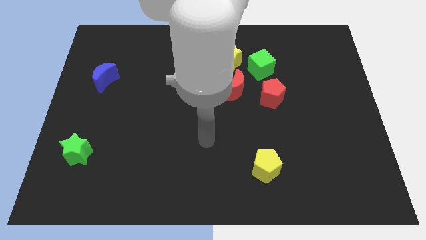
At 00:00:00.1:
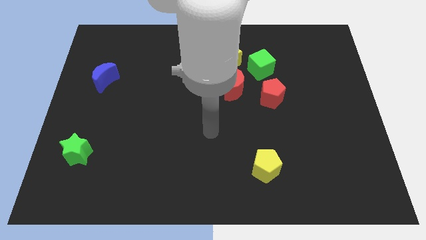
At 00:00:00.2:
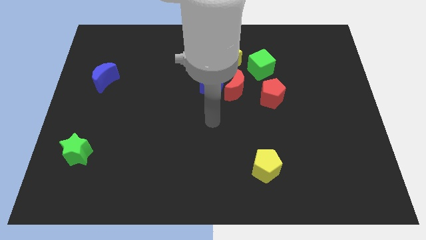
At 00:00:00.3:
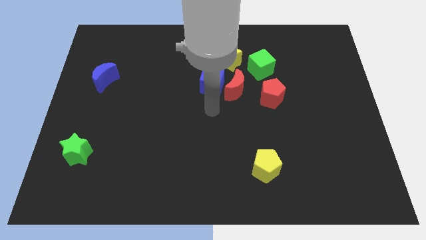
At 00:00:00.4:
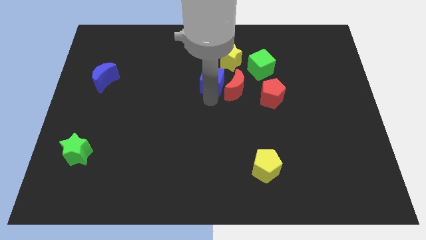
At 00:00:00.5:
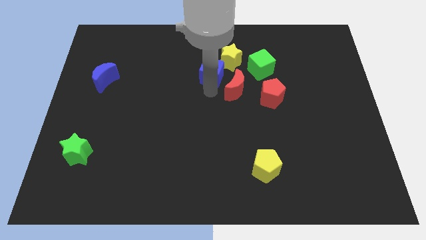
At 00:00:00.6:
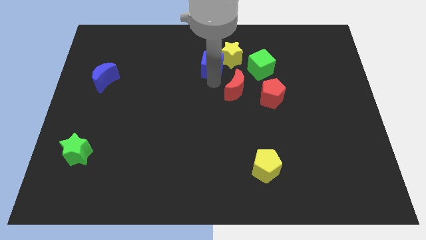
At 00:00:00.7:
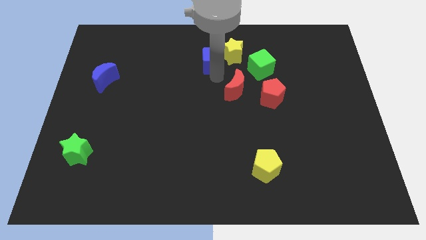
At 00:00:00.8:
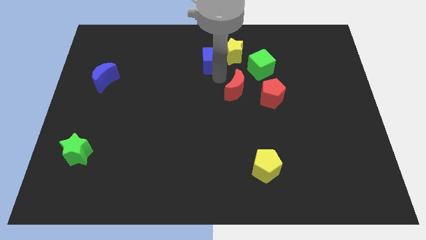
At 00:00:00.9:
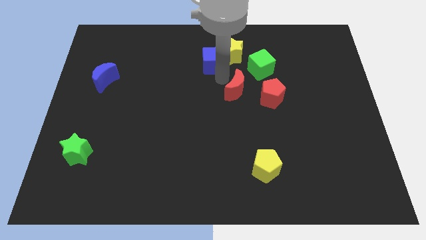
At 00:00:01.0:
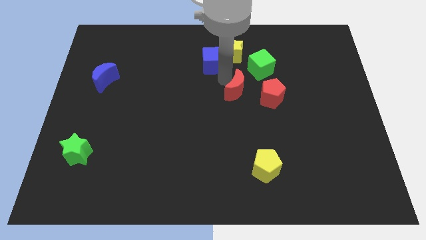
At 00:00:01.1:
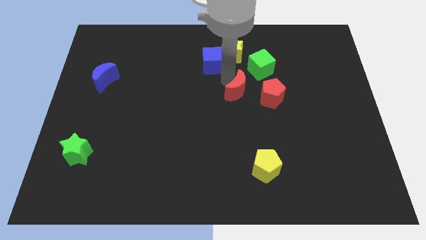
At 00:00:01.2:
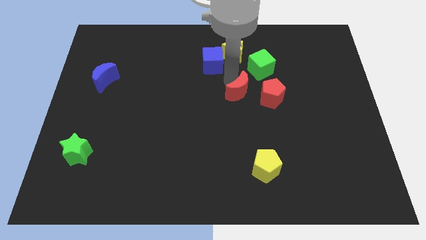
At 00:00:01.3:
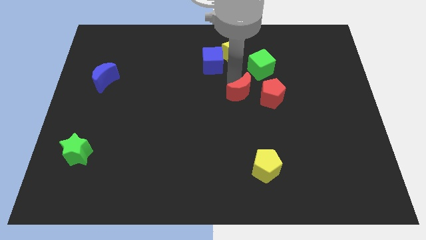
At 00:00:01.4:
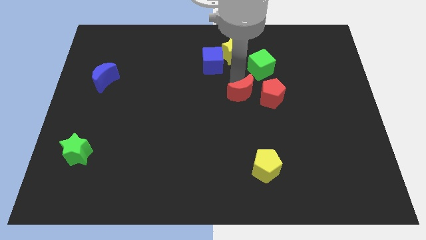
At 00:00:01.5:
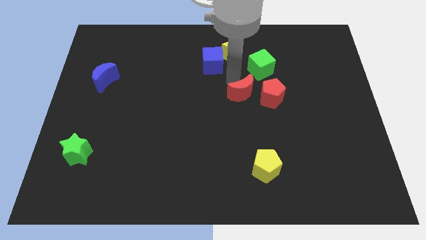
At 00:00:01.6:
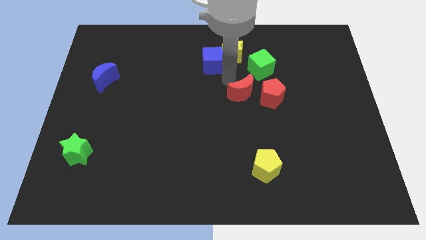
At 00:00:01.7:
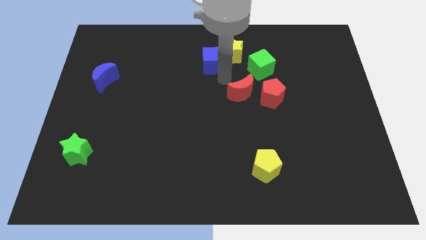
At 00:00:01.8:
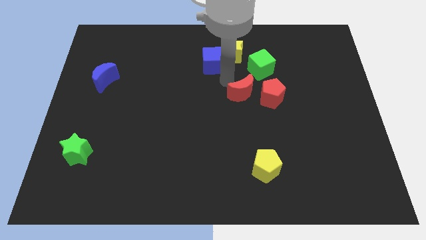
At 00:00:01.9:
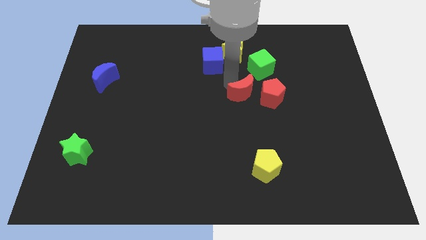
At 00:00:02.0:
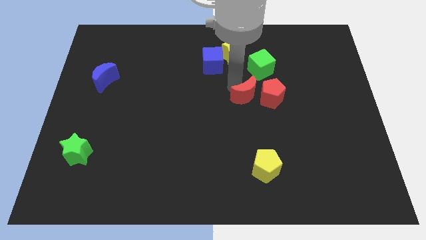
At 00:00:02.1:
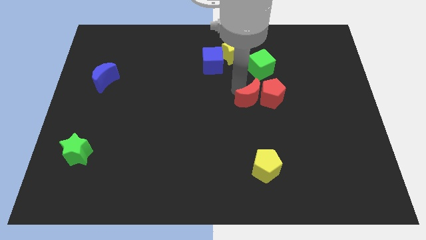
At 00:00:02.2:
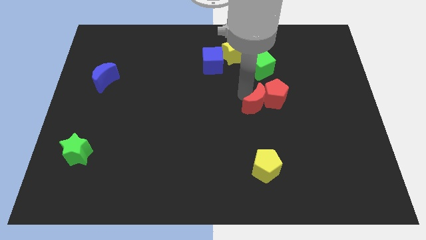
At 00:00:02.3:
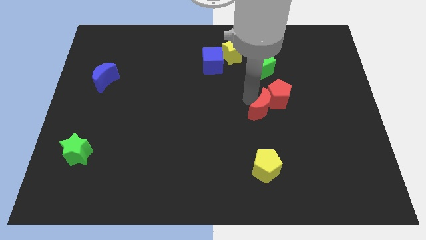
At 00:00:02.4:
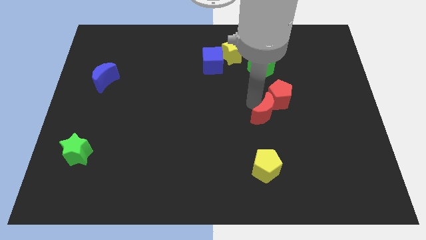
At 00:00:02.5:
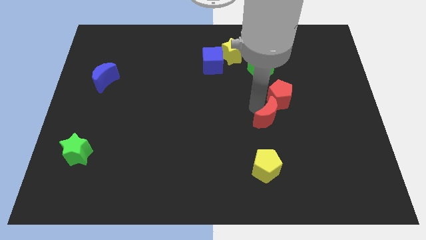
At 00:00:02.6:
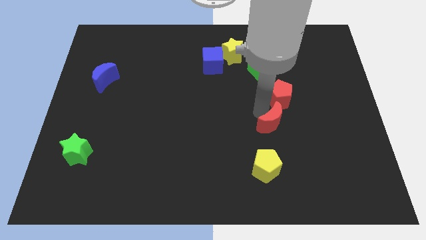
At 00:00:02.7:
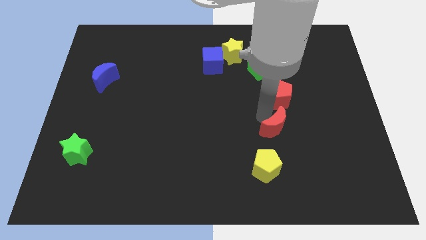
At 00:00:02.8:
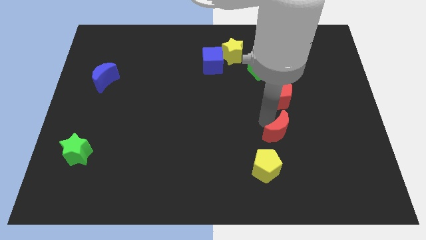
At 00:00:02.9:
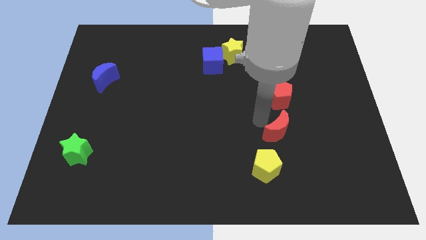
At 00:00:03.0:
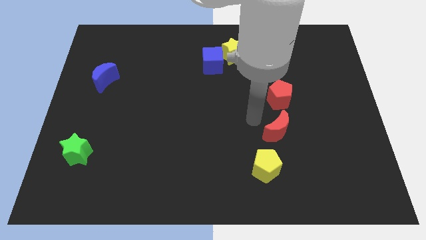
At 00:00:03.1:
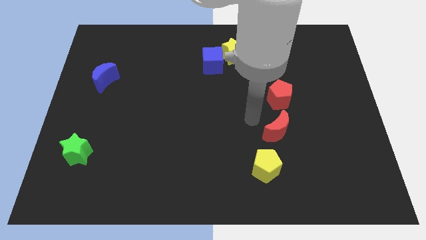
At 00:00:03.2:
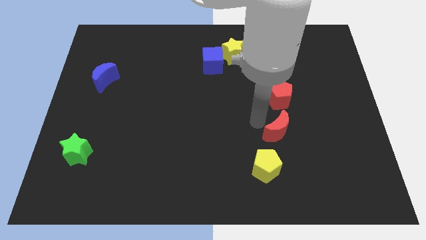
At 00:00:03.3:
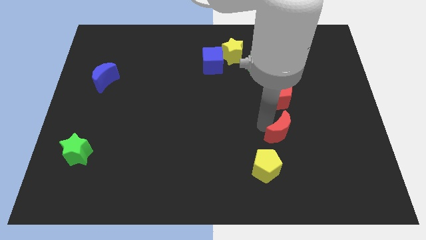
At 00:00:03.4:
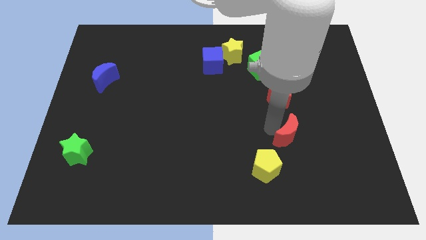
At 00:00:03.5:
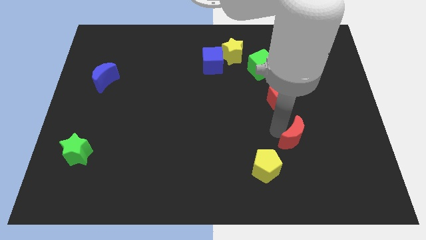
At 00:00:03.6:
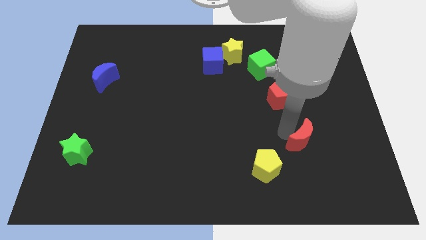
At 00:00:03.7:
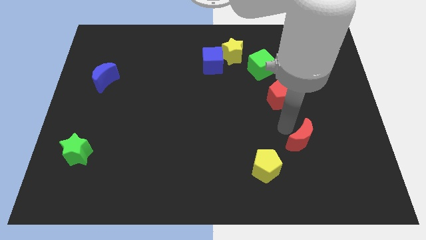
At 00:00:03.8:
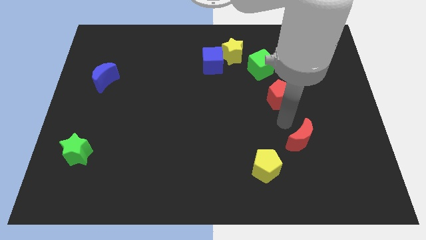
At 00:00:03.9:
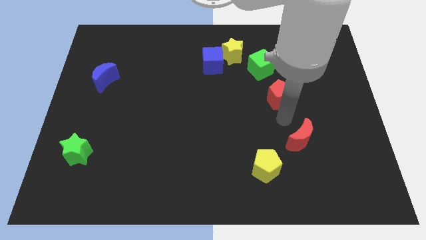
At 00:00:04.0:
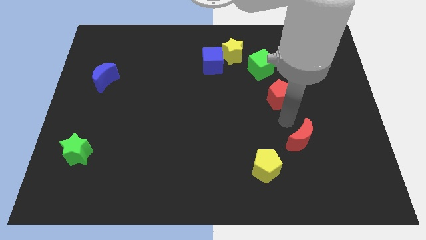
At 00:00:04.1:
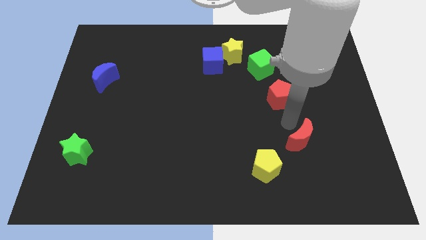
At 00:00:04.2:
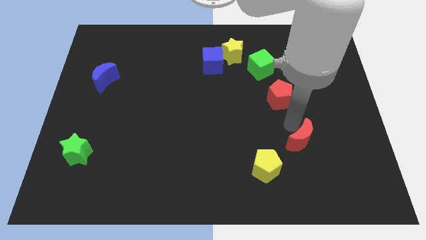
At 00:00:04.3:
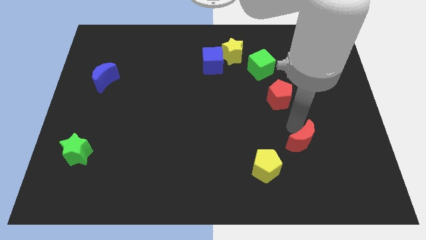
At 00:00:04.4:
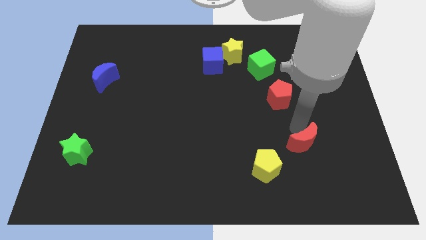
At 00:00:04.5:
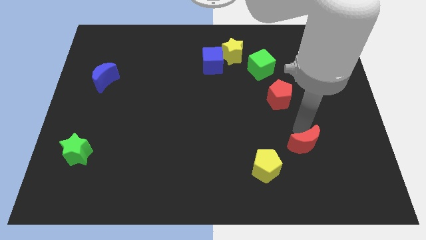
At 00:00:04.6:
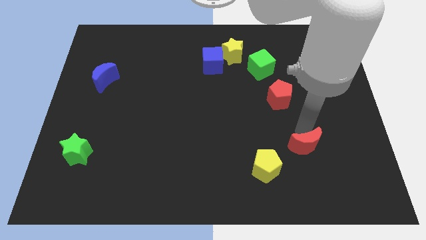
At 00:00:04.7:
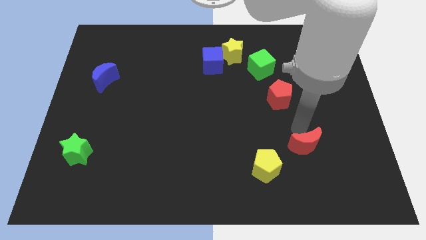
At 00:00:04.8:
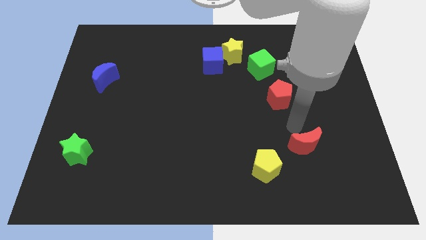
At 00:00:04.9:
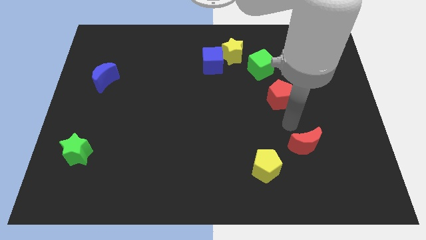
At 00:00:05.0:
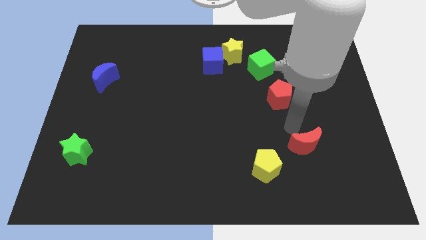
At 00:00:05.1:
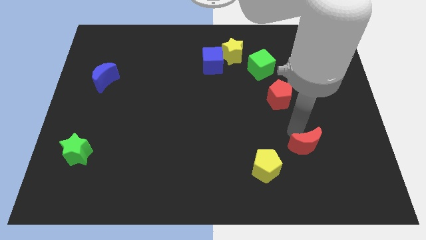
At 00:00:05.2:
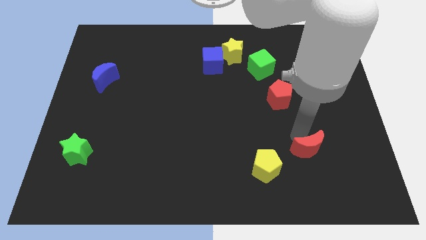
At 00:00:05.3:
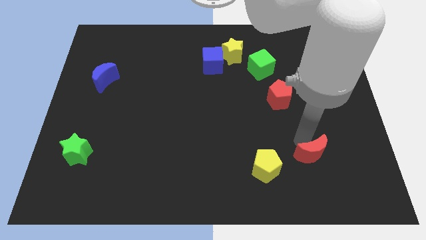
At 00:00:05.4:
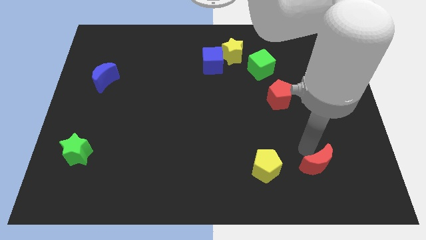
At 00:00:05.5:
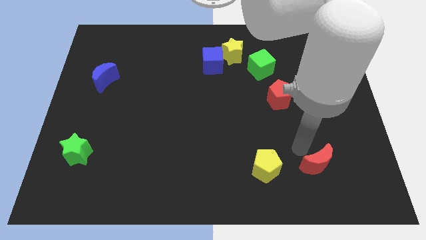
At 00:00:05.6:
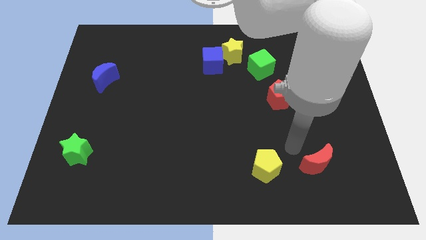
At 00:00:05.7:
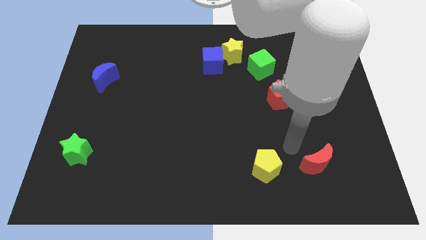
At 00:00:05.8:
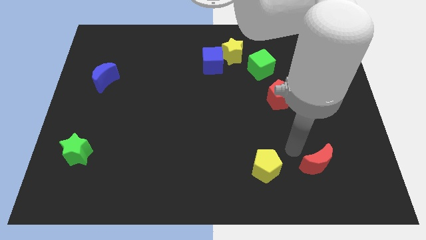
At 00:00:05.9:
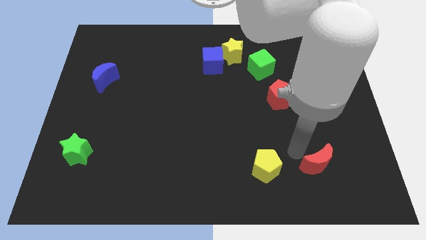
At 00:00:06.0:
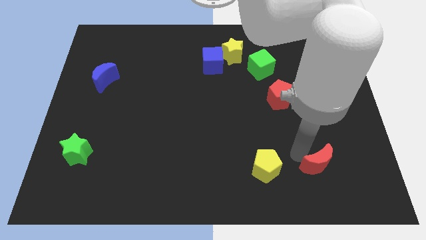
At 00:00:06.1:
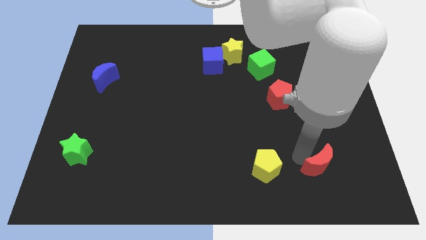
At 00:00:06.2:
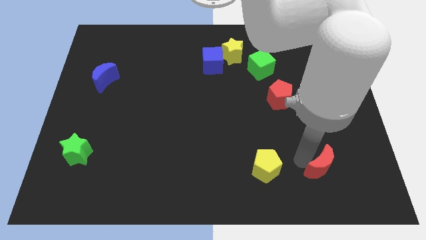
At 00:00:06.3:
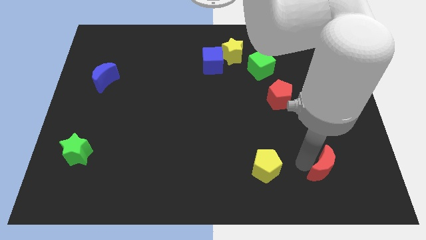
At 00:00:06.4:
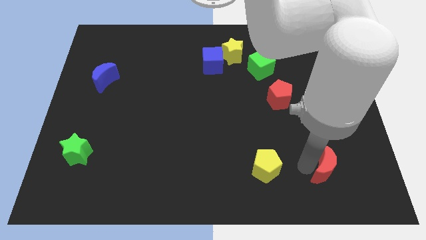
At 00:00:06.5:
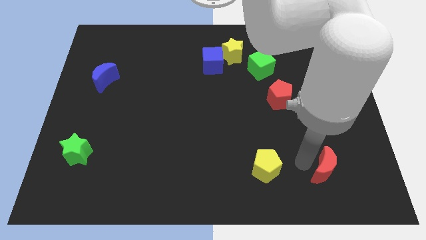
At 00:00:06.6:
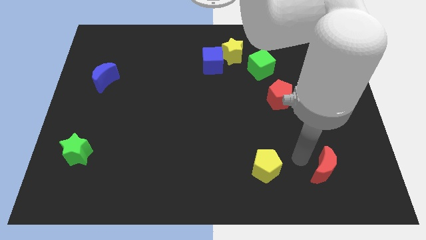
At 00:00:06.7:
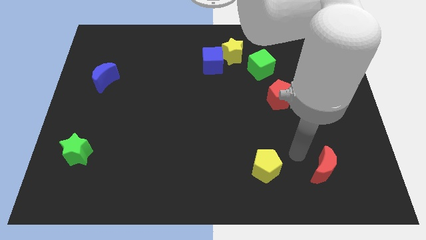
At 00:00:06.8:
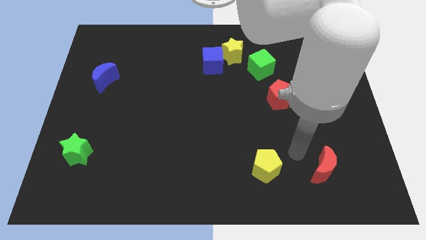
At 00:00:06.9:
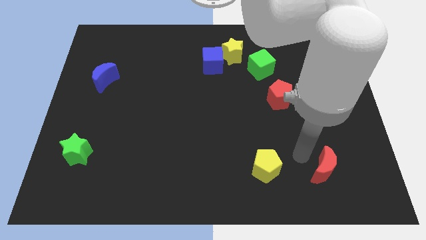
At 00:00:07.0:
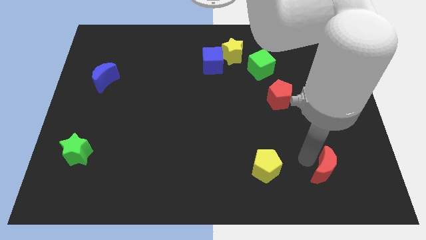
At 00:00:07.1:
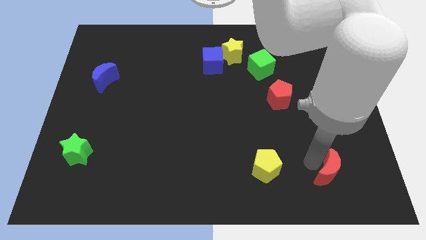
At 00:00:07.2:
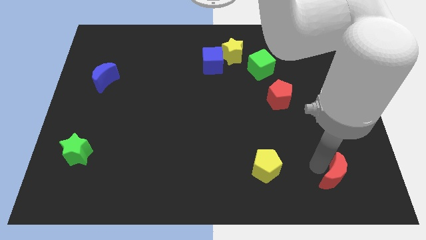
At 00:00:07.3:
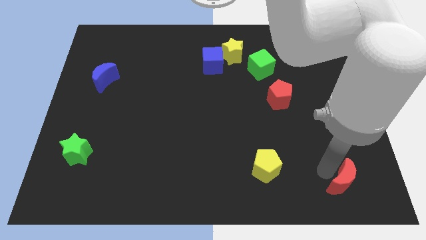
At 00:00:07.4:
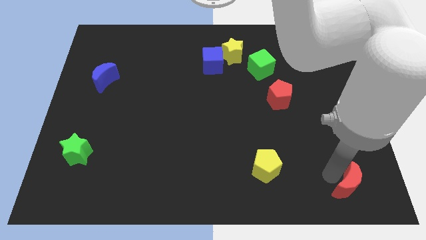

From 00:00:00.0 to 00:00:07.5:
slide the red moon to the bottom right
